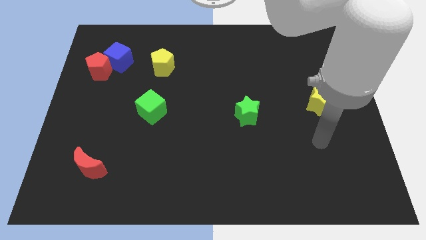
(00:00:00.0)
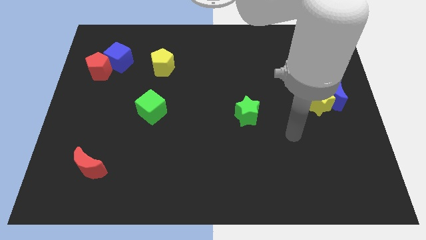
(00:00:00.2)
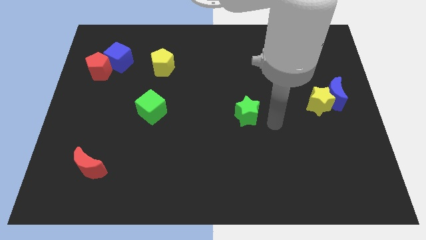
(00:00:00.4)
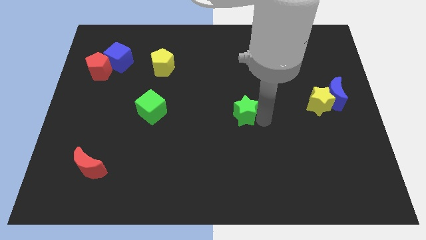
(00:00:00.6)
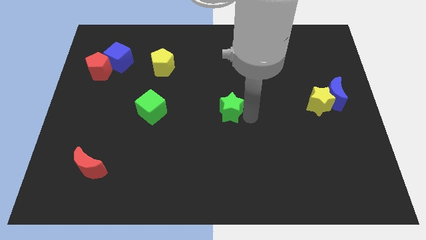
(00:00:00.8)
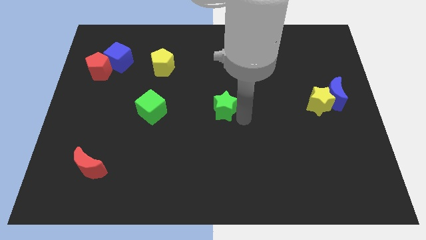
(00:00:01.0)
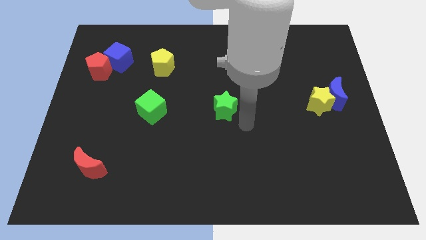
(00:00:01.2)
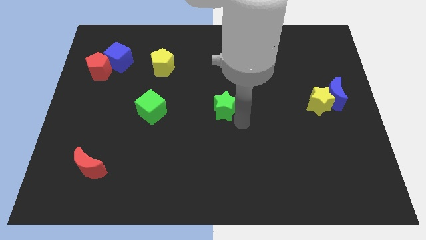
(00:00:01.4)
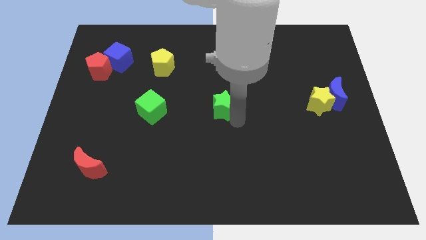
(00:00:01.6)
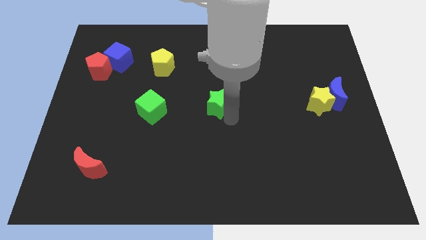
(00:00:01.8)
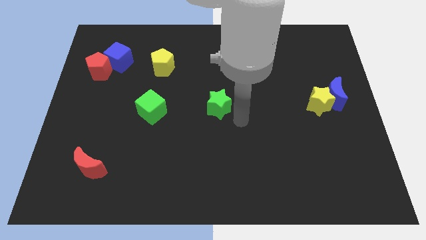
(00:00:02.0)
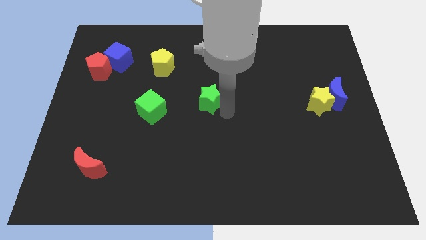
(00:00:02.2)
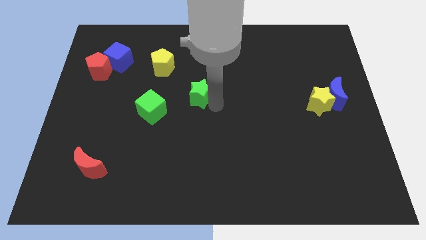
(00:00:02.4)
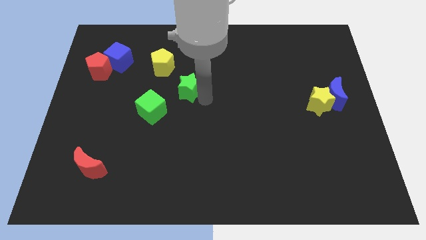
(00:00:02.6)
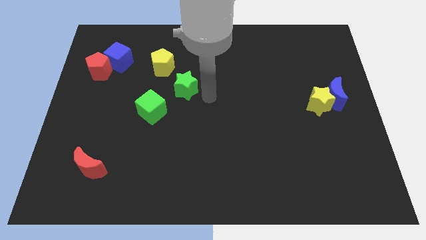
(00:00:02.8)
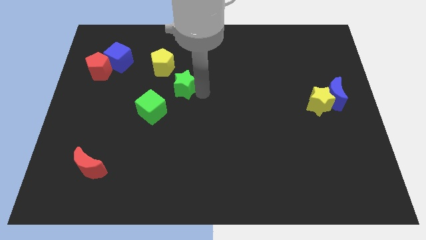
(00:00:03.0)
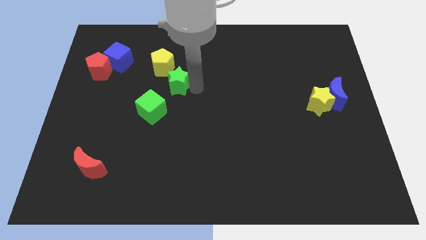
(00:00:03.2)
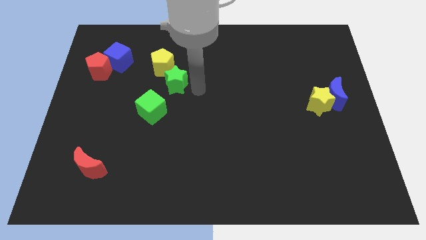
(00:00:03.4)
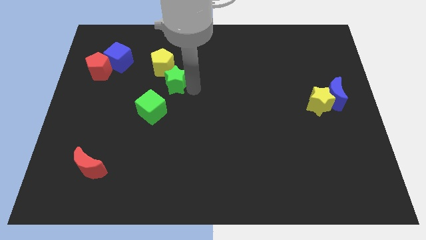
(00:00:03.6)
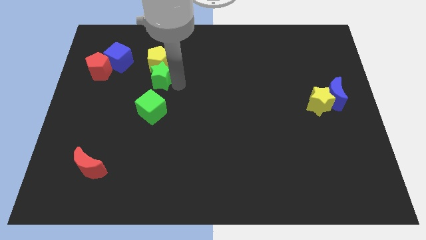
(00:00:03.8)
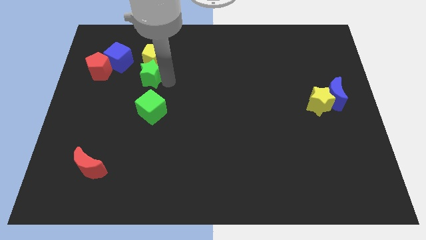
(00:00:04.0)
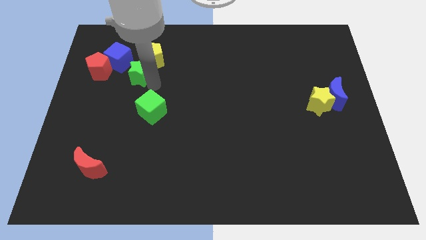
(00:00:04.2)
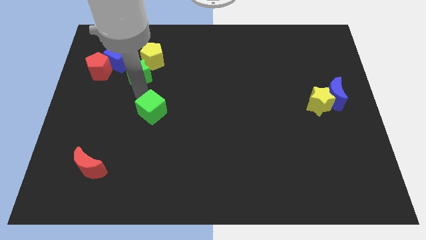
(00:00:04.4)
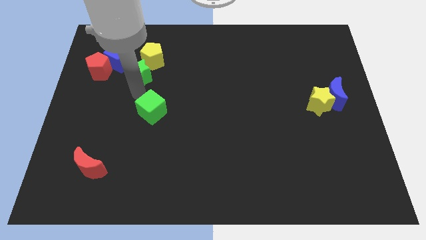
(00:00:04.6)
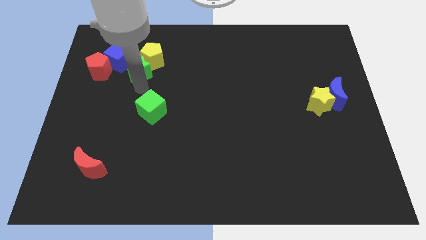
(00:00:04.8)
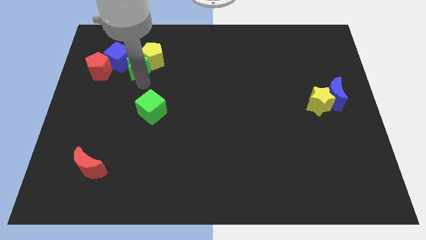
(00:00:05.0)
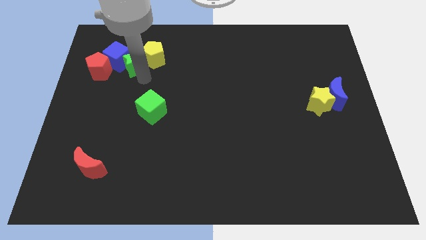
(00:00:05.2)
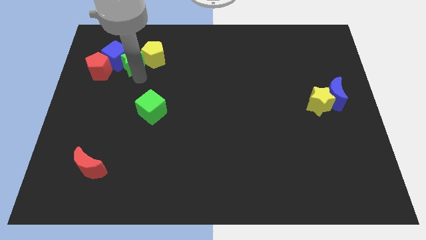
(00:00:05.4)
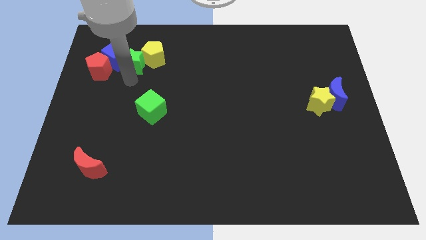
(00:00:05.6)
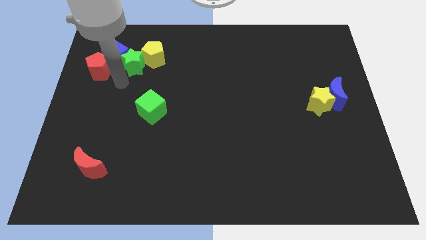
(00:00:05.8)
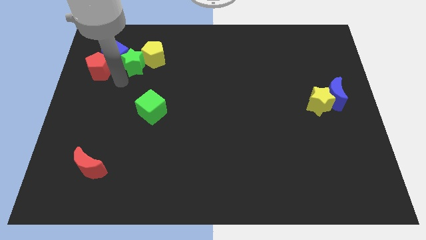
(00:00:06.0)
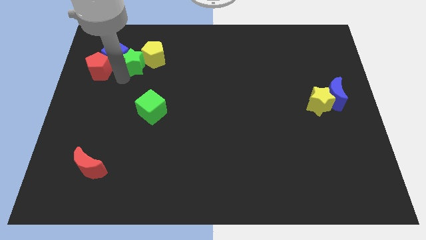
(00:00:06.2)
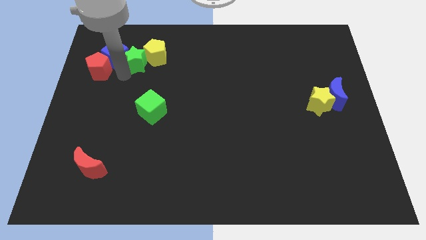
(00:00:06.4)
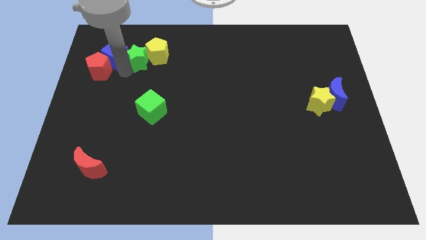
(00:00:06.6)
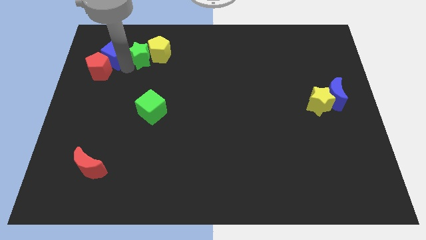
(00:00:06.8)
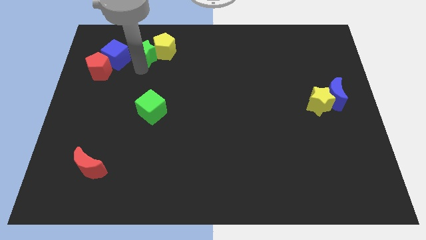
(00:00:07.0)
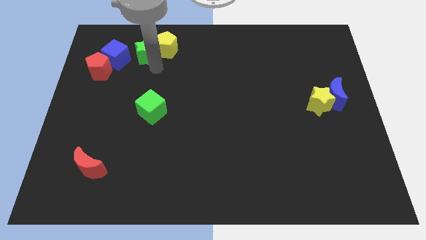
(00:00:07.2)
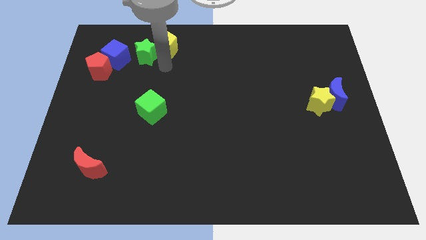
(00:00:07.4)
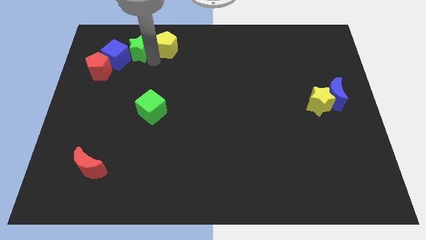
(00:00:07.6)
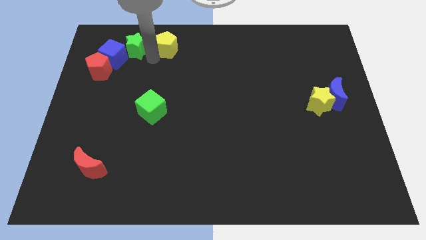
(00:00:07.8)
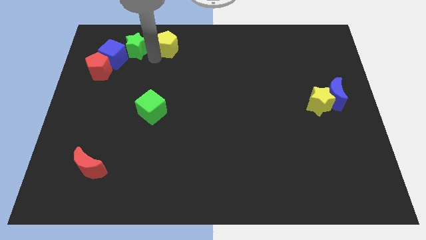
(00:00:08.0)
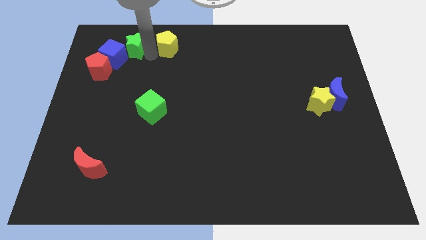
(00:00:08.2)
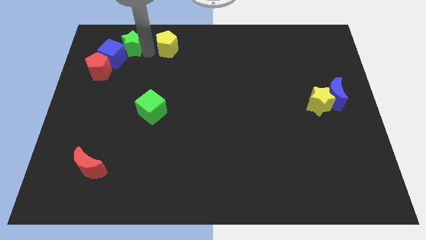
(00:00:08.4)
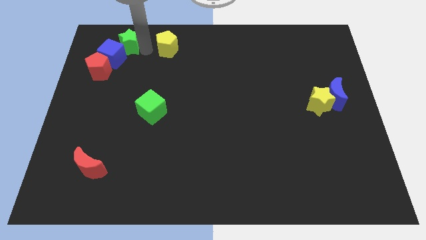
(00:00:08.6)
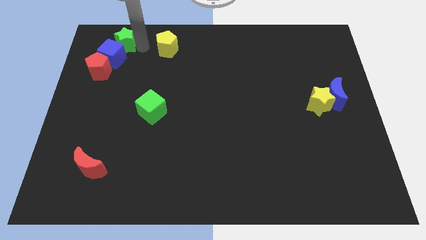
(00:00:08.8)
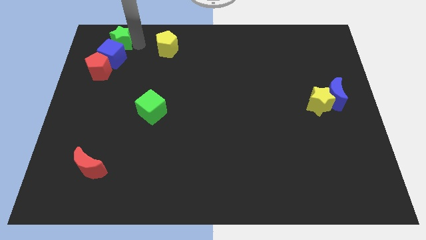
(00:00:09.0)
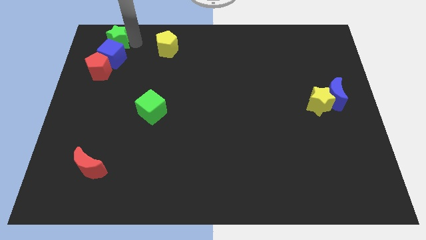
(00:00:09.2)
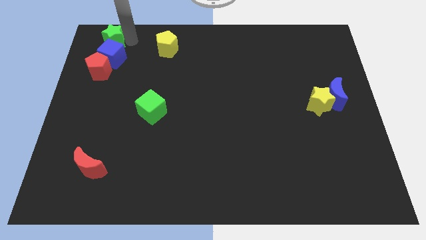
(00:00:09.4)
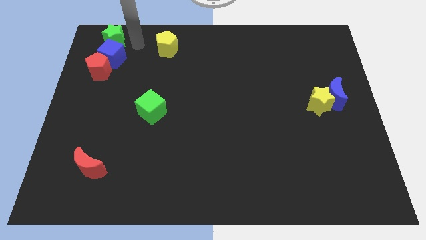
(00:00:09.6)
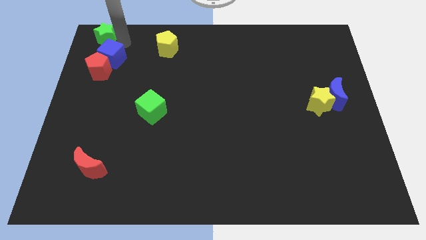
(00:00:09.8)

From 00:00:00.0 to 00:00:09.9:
push the green star to the upper left corner

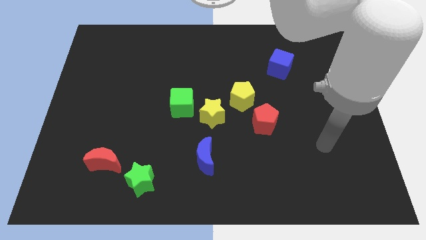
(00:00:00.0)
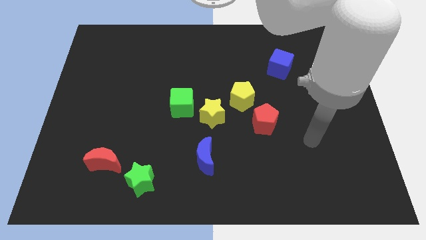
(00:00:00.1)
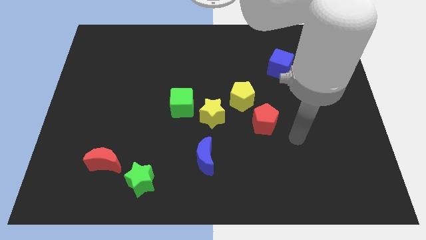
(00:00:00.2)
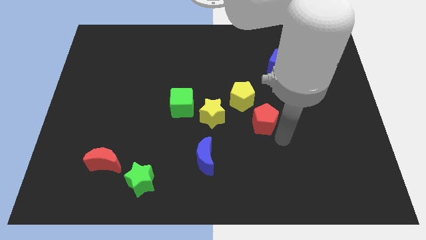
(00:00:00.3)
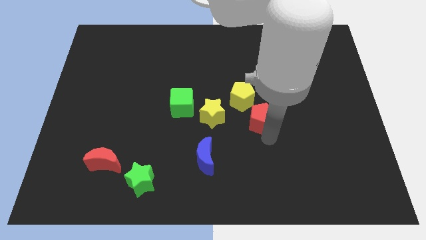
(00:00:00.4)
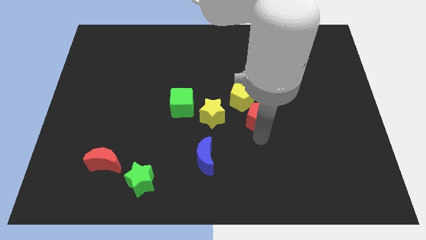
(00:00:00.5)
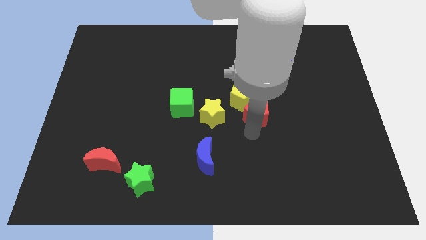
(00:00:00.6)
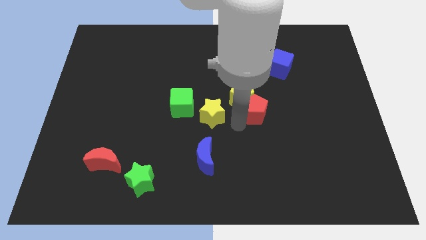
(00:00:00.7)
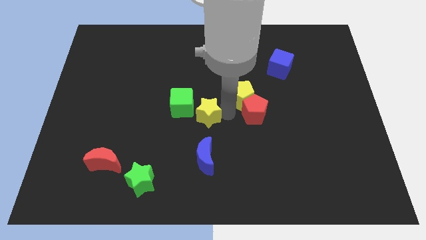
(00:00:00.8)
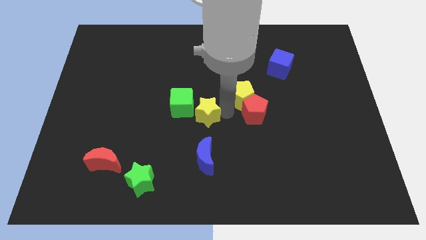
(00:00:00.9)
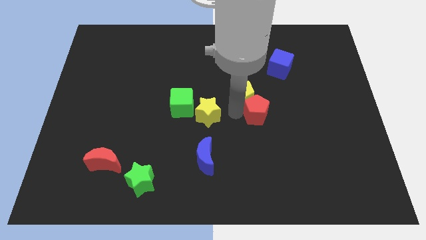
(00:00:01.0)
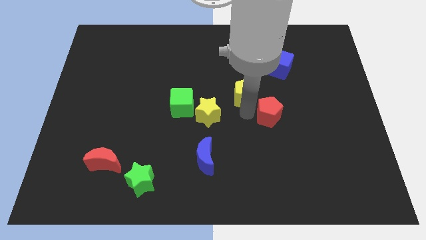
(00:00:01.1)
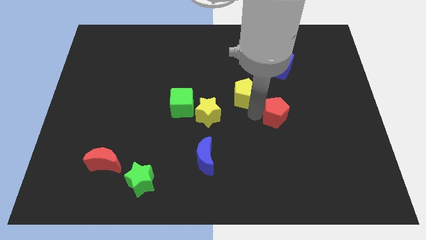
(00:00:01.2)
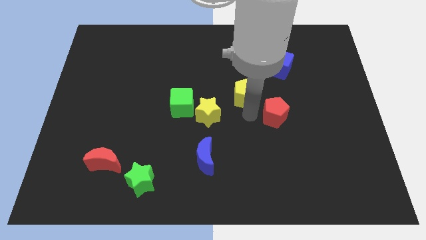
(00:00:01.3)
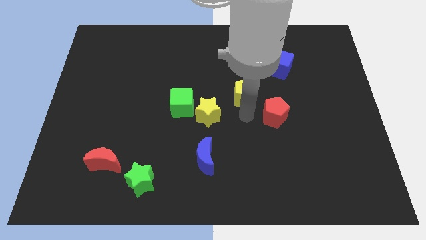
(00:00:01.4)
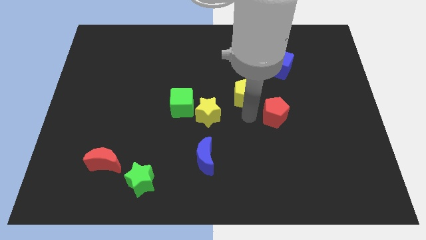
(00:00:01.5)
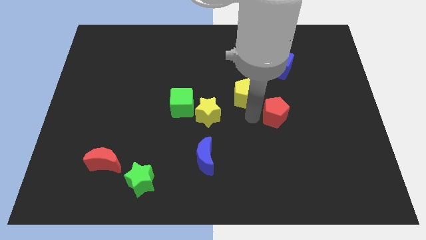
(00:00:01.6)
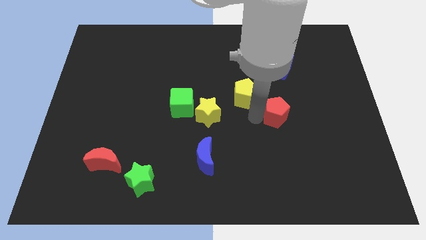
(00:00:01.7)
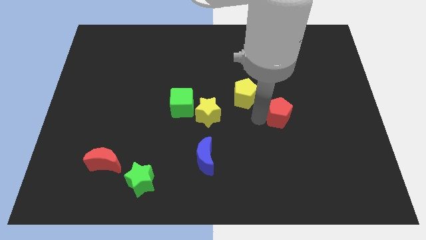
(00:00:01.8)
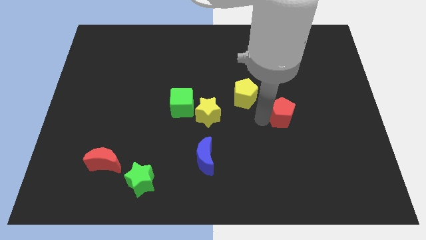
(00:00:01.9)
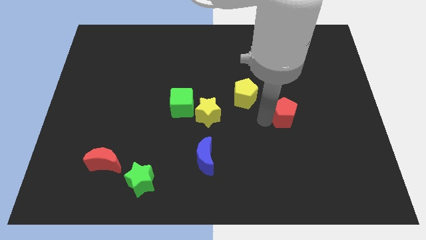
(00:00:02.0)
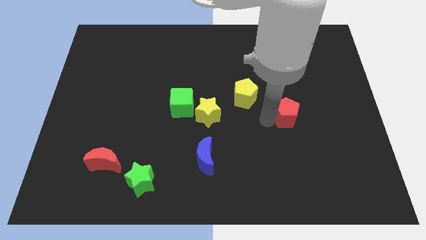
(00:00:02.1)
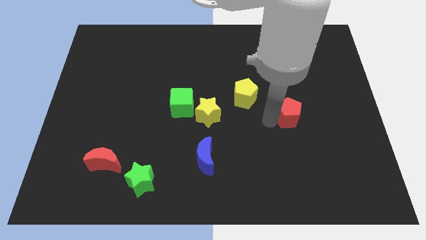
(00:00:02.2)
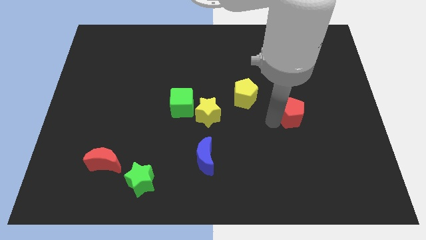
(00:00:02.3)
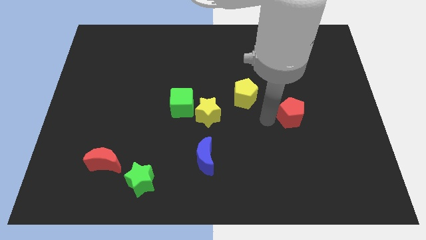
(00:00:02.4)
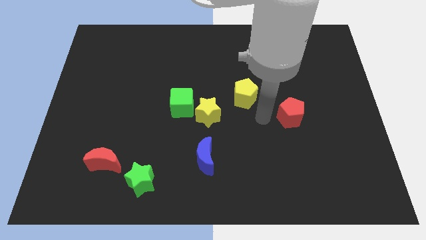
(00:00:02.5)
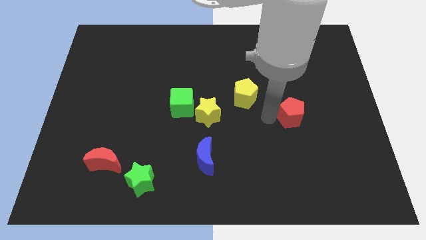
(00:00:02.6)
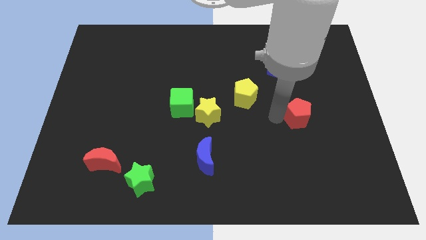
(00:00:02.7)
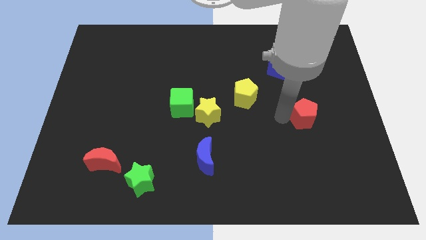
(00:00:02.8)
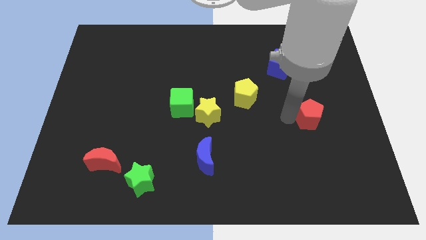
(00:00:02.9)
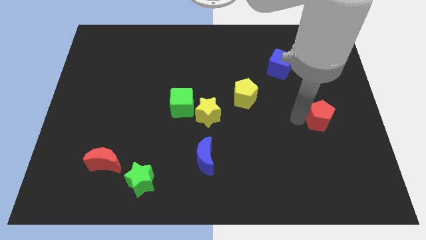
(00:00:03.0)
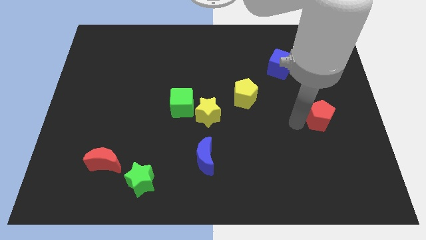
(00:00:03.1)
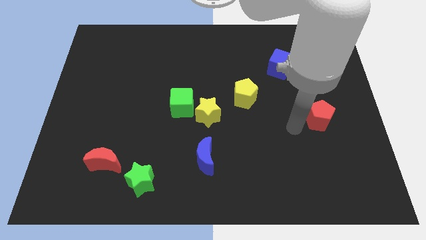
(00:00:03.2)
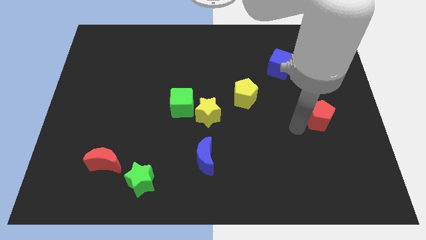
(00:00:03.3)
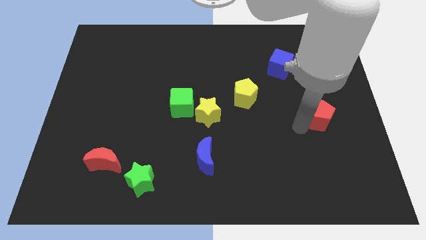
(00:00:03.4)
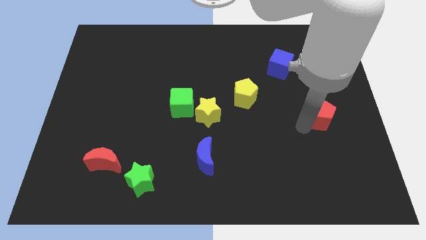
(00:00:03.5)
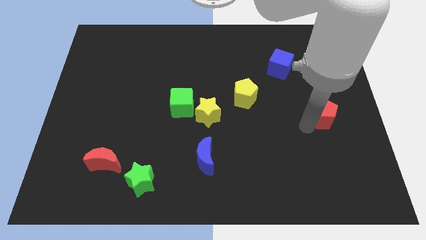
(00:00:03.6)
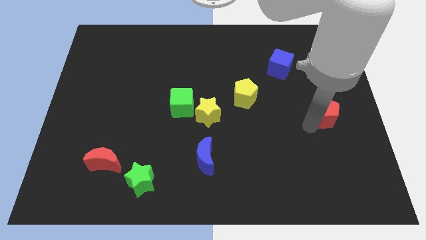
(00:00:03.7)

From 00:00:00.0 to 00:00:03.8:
push the red pentagon to the center right
